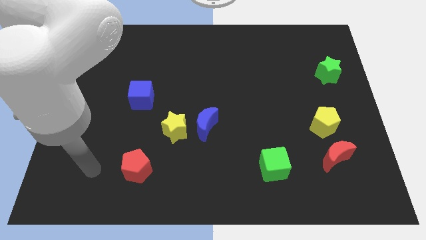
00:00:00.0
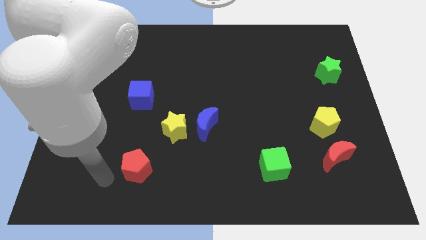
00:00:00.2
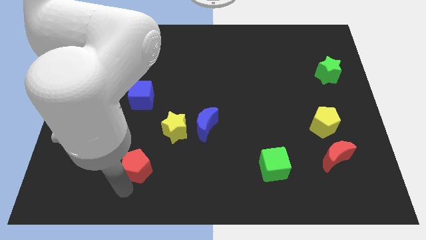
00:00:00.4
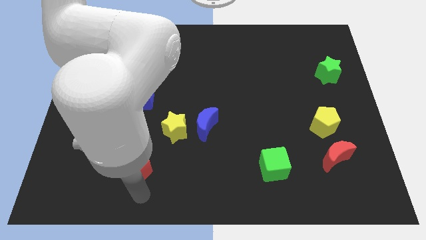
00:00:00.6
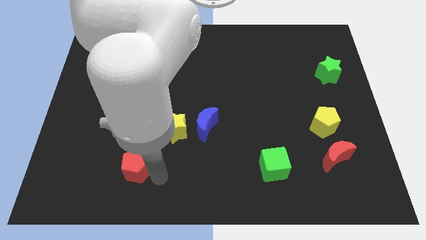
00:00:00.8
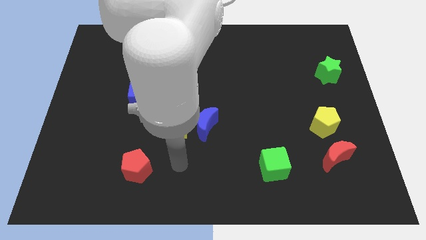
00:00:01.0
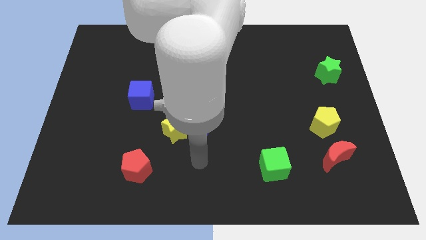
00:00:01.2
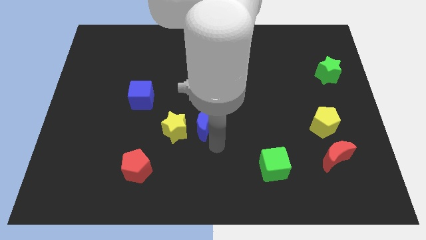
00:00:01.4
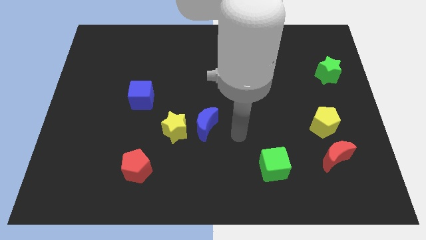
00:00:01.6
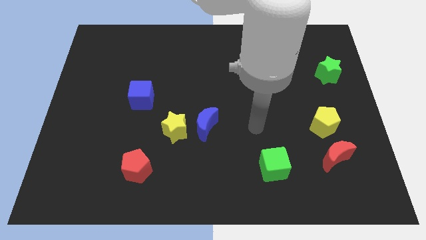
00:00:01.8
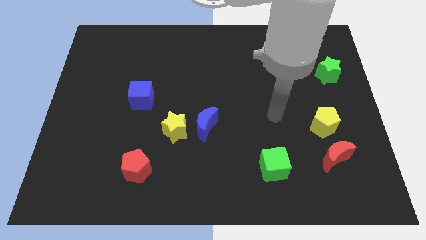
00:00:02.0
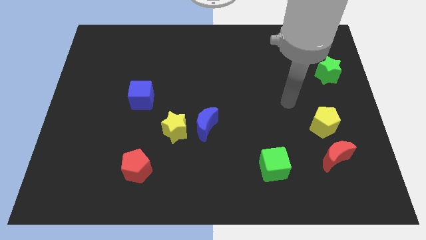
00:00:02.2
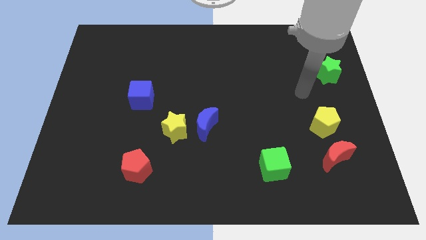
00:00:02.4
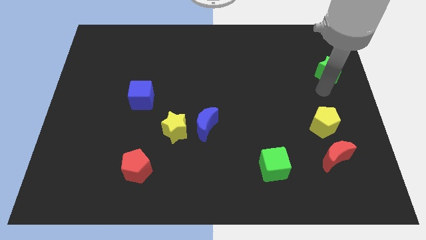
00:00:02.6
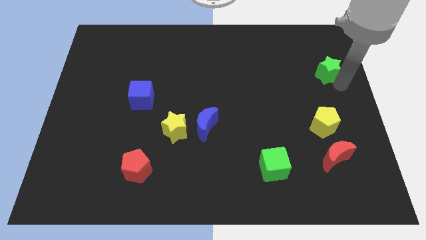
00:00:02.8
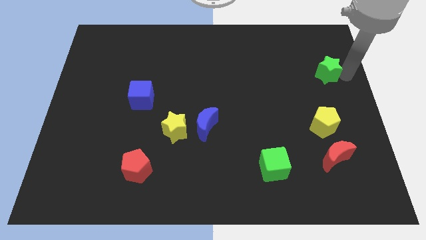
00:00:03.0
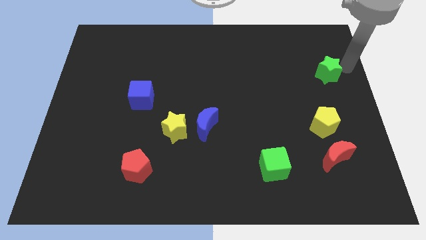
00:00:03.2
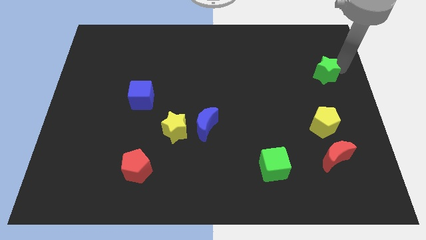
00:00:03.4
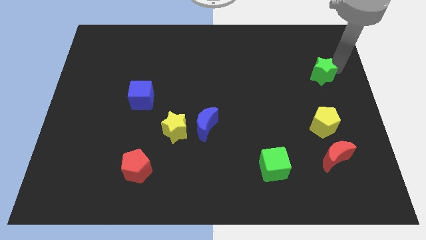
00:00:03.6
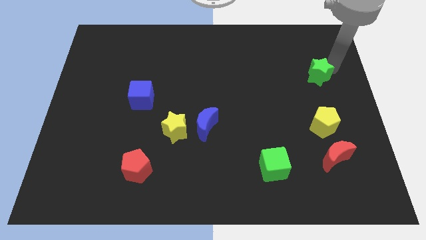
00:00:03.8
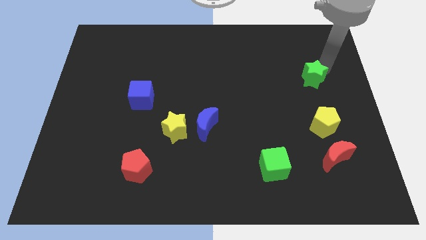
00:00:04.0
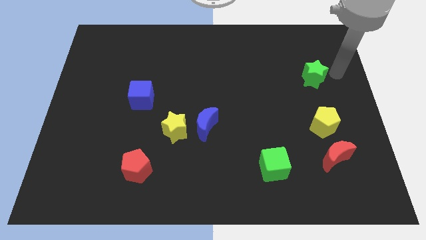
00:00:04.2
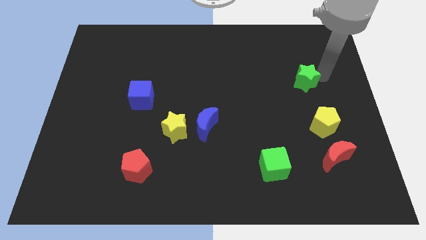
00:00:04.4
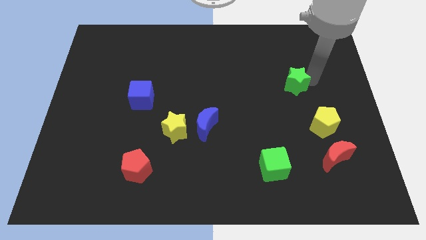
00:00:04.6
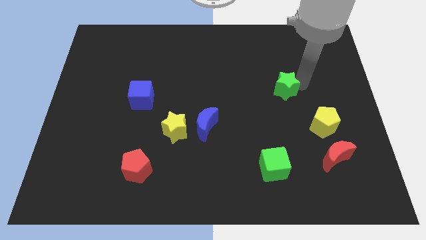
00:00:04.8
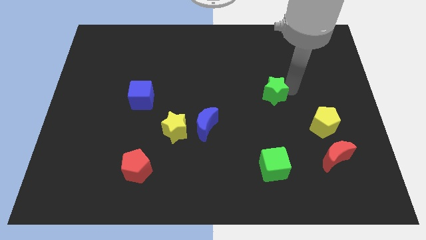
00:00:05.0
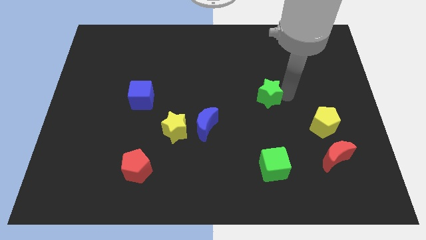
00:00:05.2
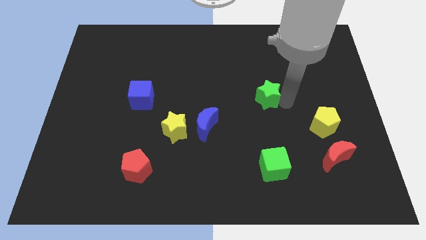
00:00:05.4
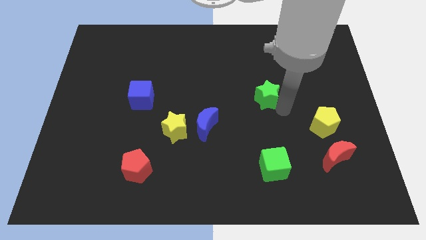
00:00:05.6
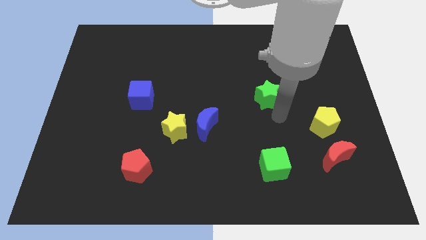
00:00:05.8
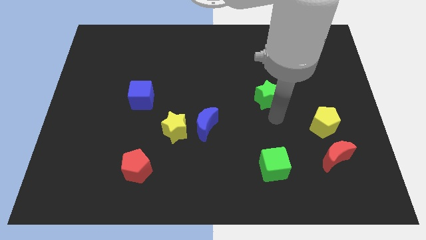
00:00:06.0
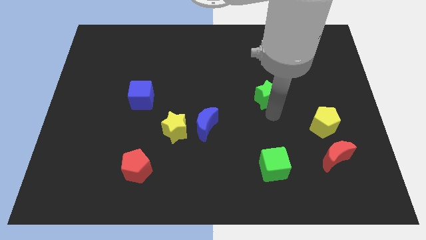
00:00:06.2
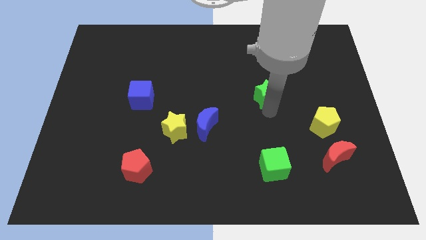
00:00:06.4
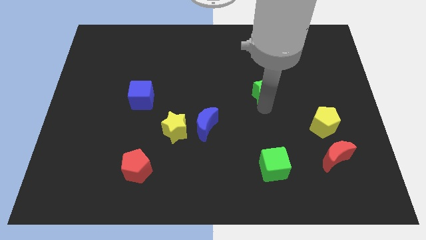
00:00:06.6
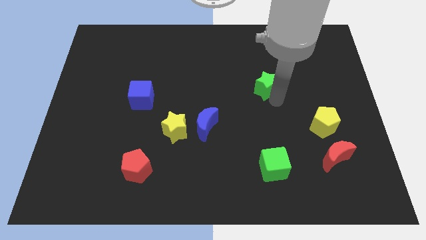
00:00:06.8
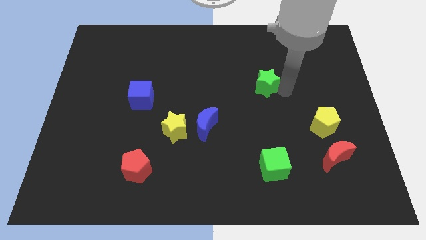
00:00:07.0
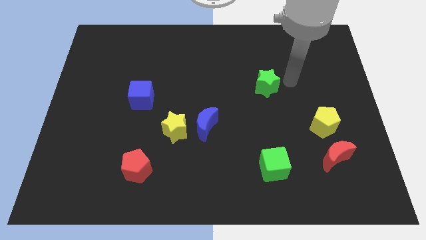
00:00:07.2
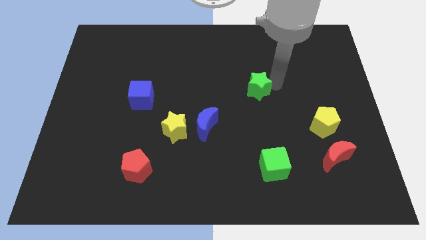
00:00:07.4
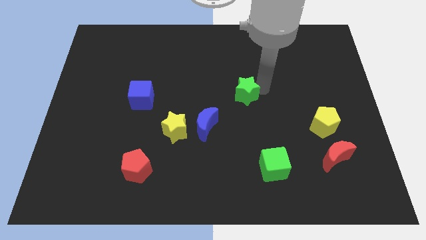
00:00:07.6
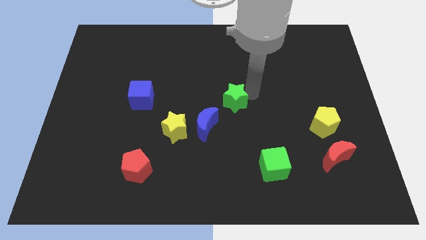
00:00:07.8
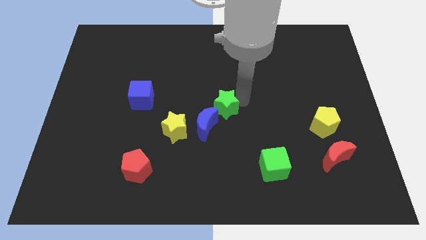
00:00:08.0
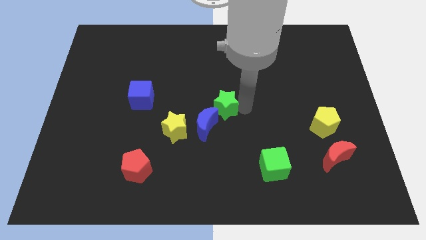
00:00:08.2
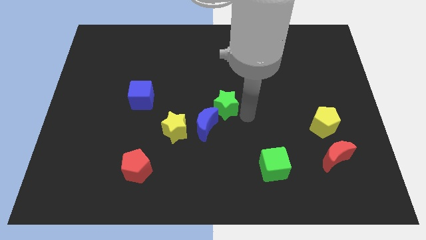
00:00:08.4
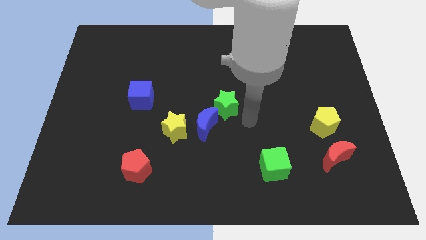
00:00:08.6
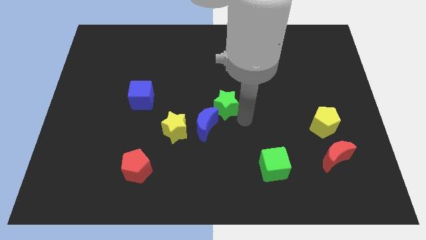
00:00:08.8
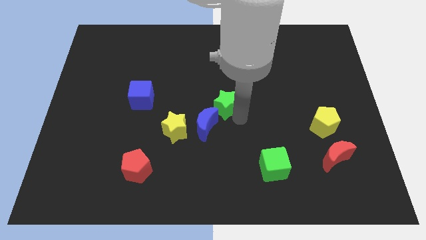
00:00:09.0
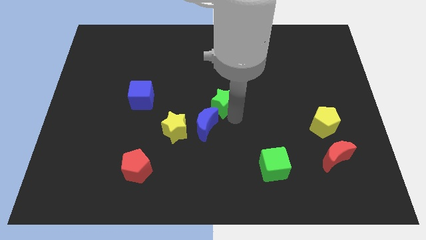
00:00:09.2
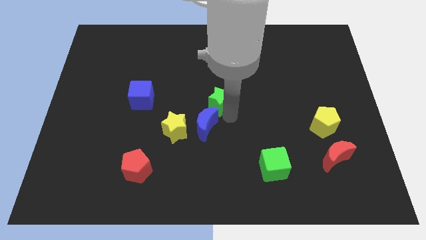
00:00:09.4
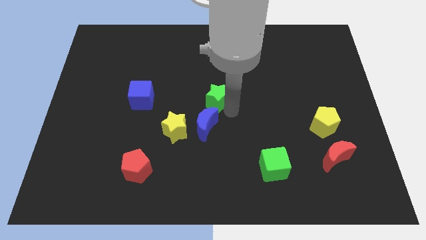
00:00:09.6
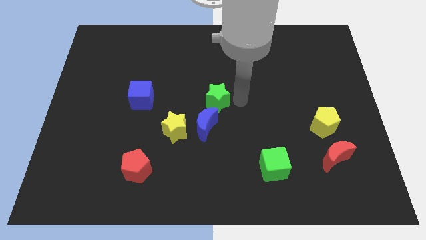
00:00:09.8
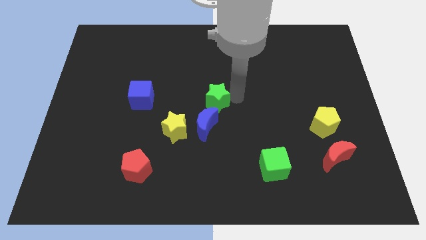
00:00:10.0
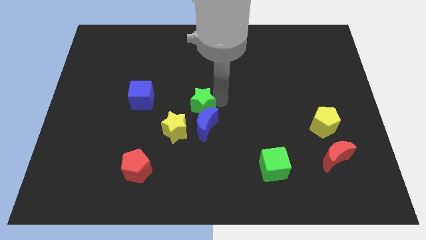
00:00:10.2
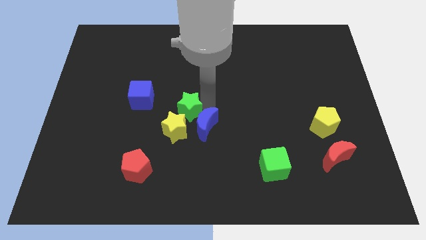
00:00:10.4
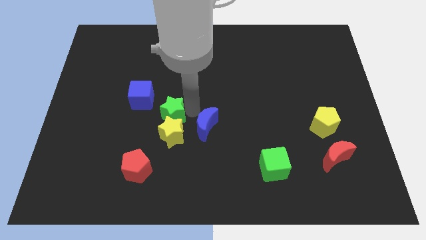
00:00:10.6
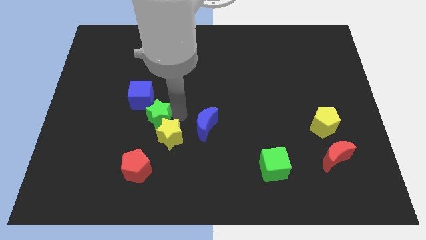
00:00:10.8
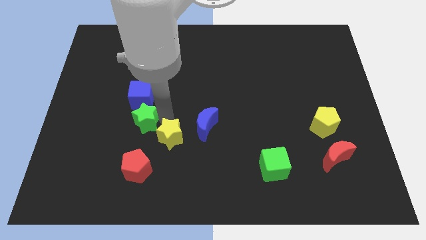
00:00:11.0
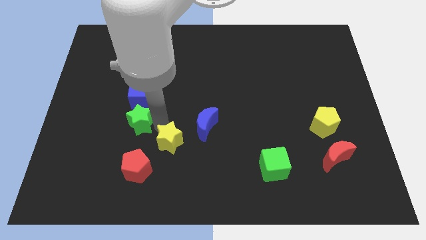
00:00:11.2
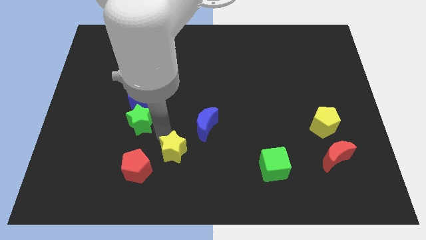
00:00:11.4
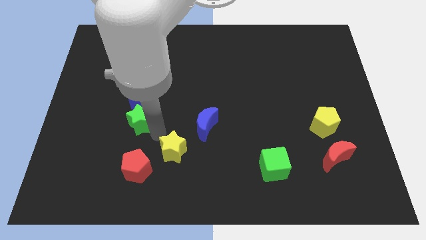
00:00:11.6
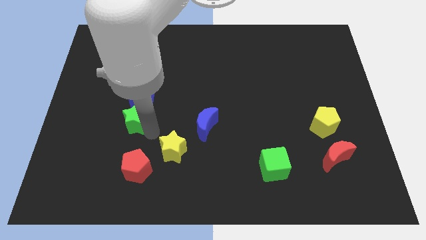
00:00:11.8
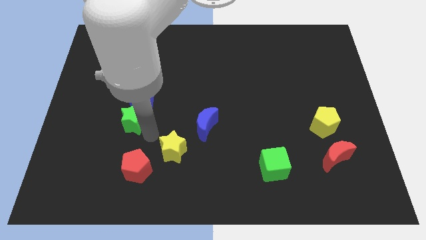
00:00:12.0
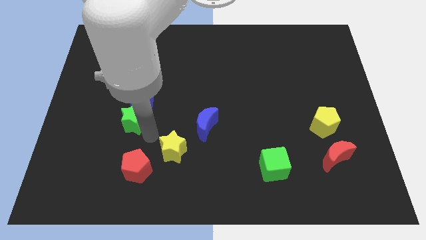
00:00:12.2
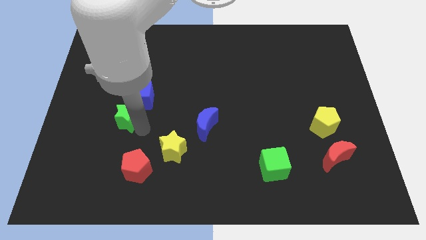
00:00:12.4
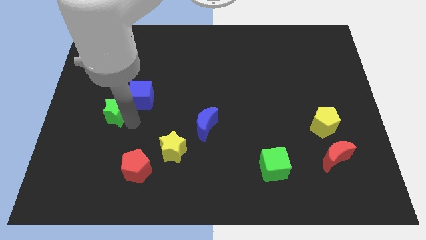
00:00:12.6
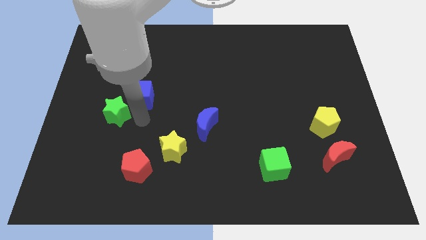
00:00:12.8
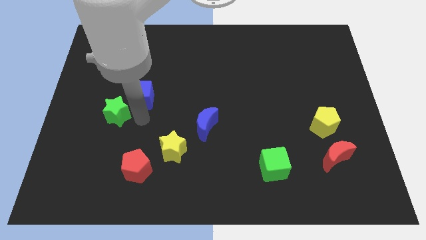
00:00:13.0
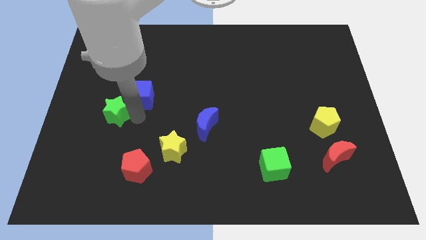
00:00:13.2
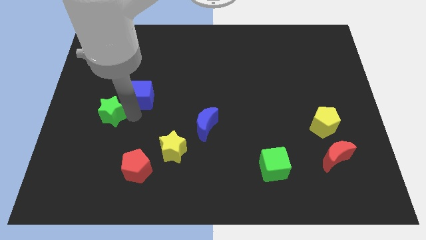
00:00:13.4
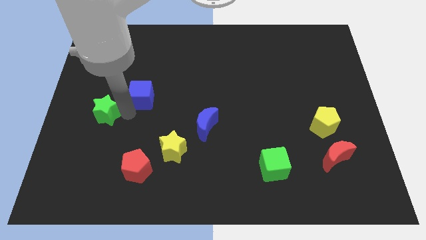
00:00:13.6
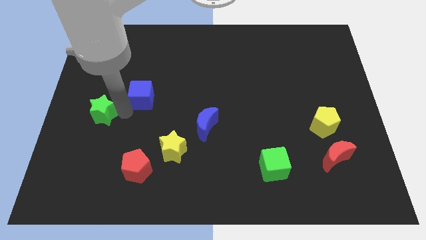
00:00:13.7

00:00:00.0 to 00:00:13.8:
push the green star to the left side
